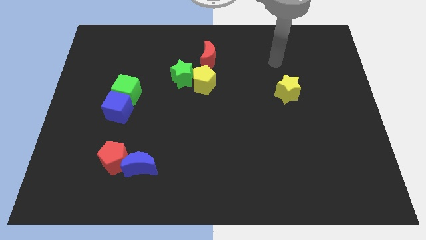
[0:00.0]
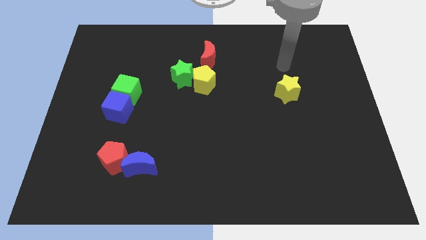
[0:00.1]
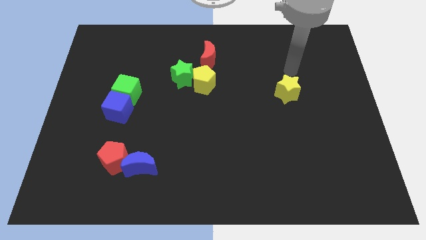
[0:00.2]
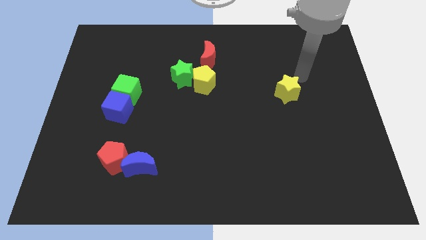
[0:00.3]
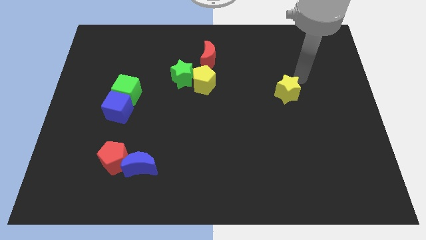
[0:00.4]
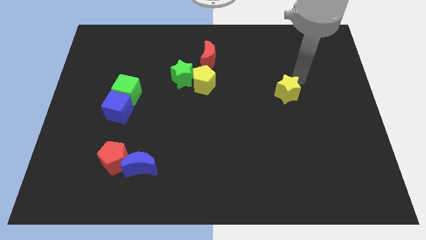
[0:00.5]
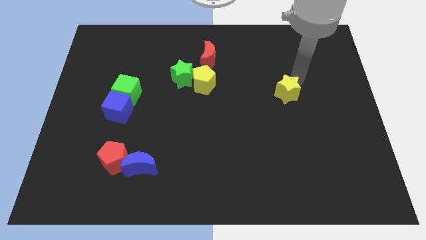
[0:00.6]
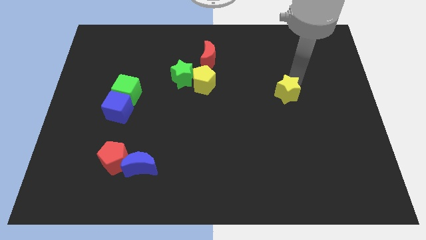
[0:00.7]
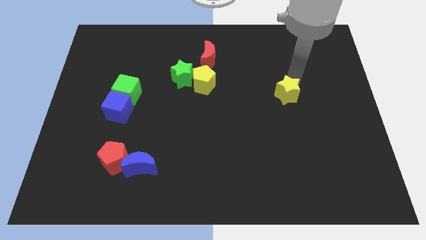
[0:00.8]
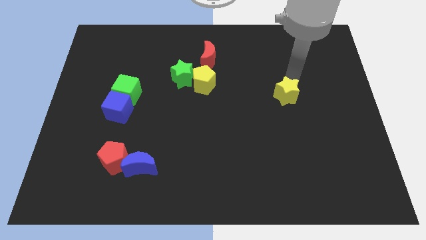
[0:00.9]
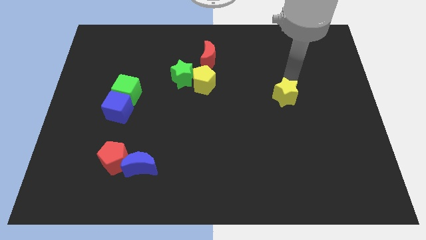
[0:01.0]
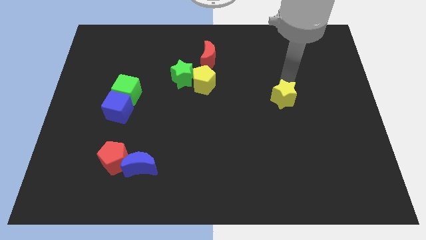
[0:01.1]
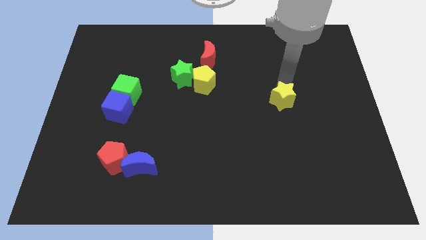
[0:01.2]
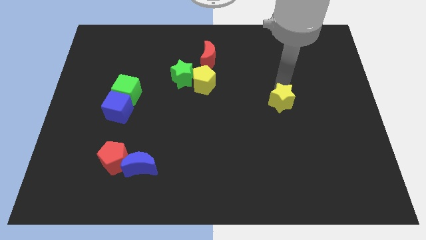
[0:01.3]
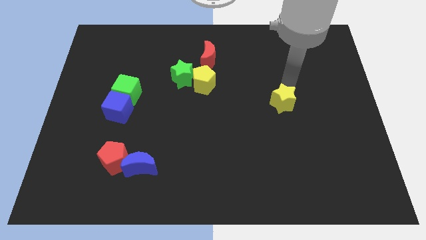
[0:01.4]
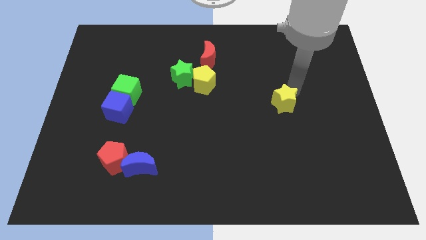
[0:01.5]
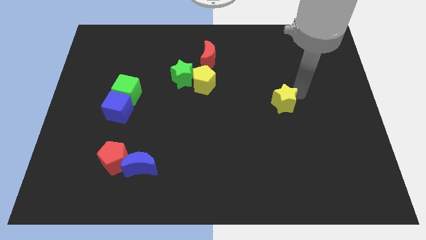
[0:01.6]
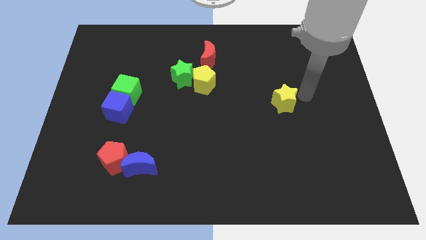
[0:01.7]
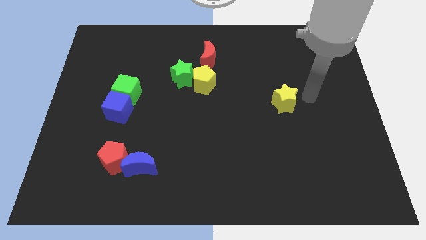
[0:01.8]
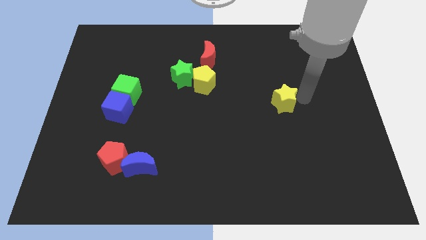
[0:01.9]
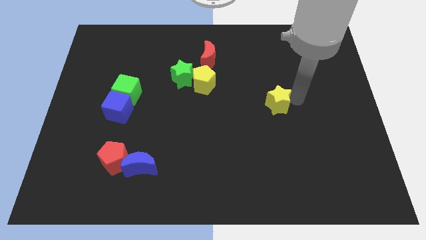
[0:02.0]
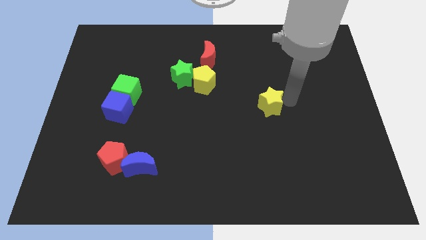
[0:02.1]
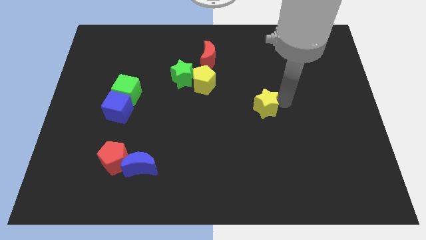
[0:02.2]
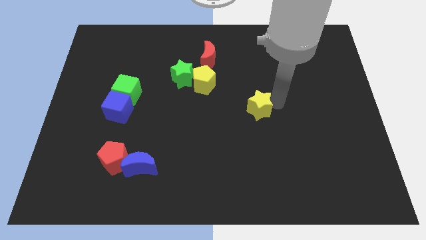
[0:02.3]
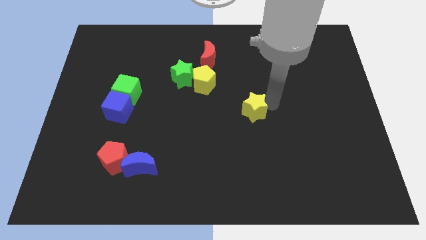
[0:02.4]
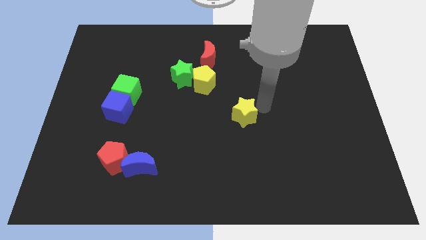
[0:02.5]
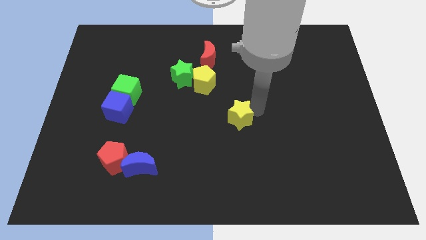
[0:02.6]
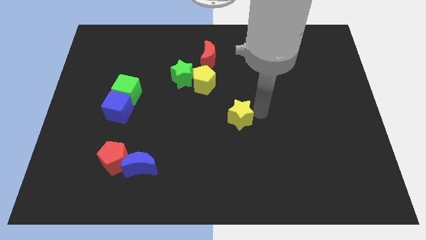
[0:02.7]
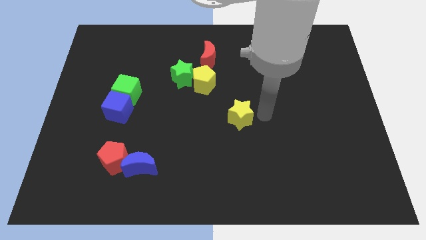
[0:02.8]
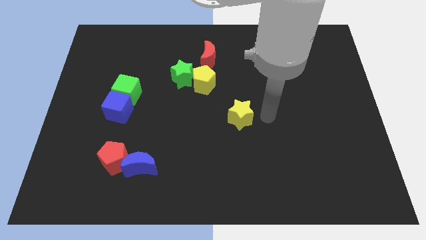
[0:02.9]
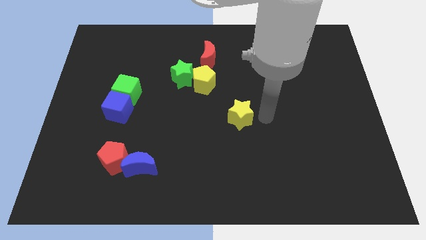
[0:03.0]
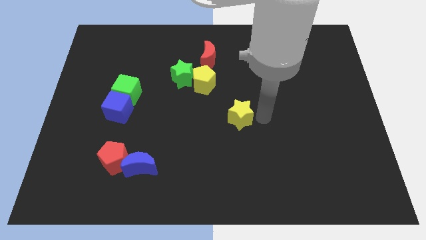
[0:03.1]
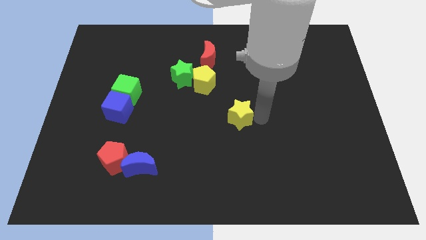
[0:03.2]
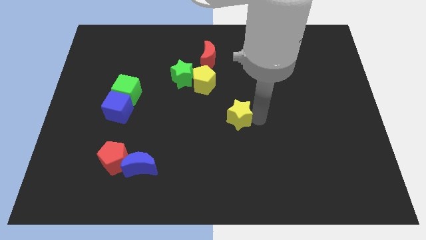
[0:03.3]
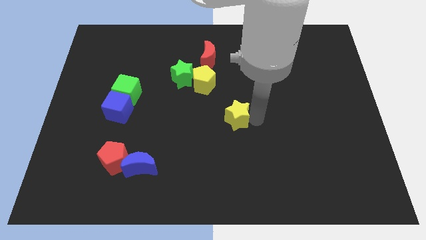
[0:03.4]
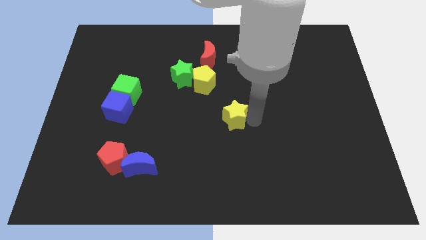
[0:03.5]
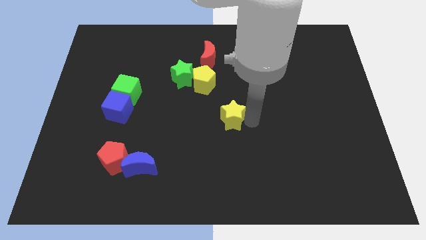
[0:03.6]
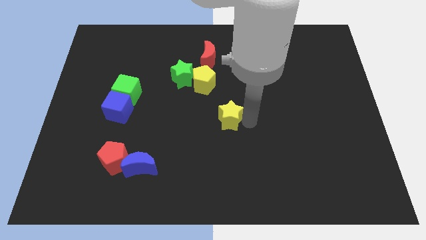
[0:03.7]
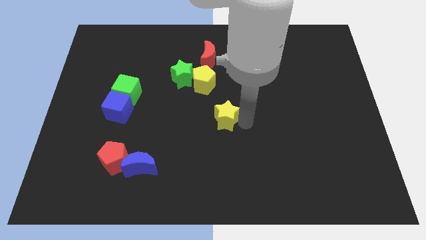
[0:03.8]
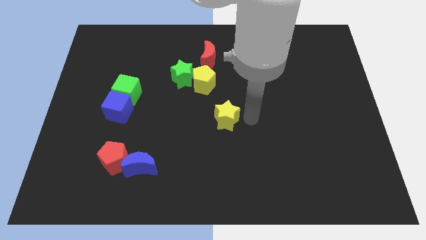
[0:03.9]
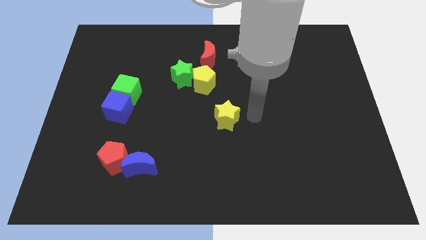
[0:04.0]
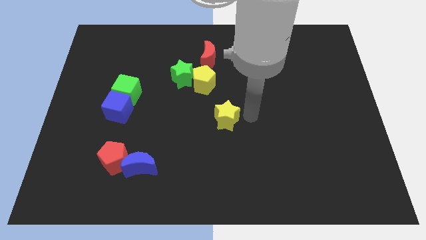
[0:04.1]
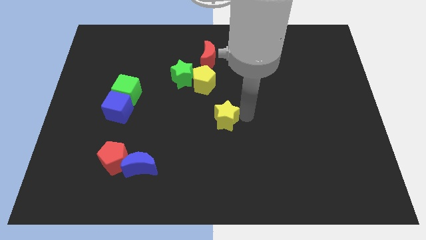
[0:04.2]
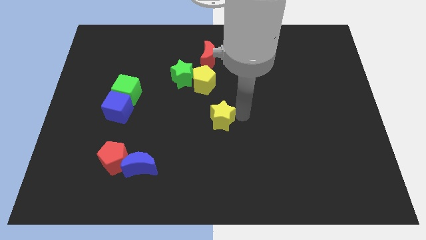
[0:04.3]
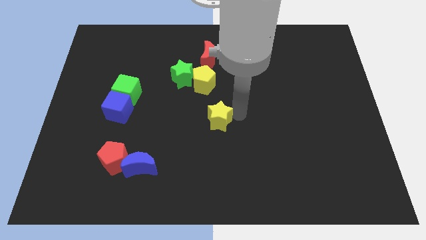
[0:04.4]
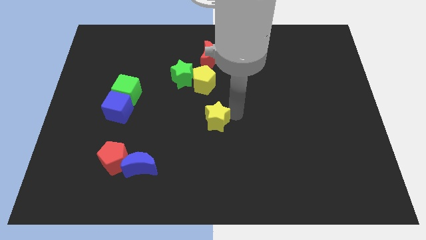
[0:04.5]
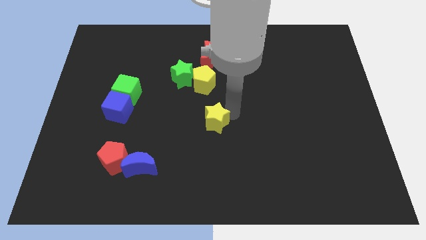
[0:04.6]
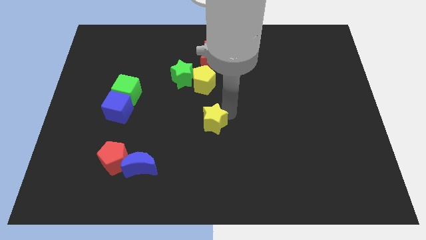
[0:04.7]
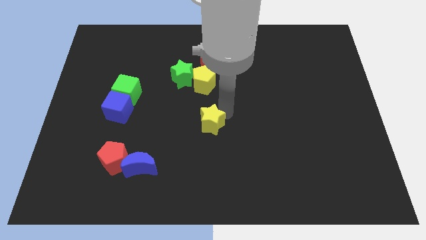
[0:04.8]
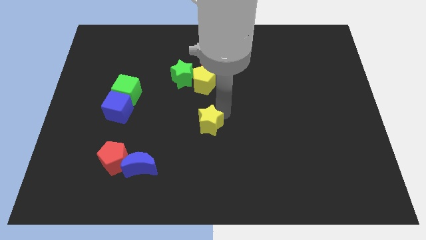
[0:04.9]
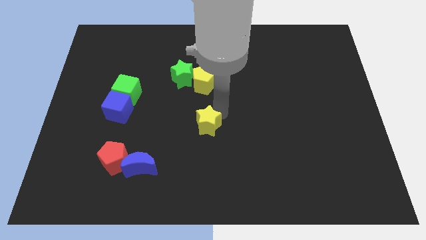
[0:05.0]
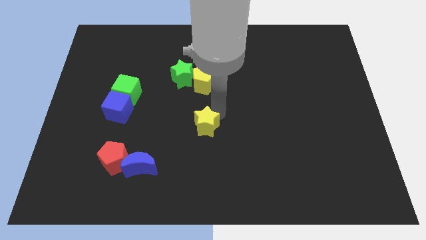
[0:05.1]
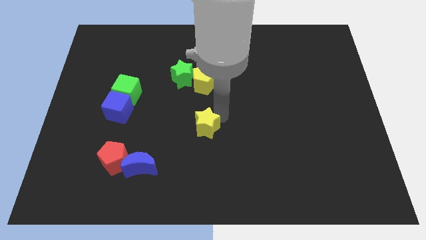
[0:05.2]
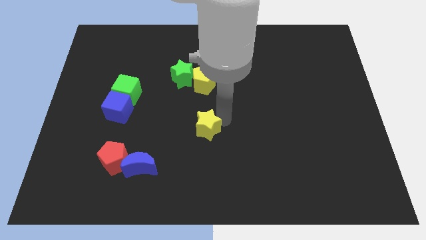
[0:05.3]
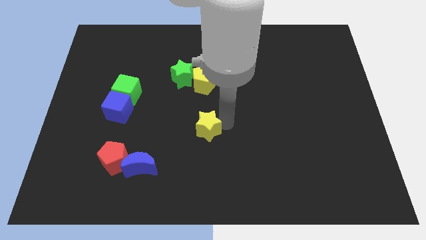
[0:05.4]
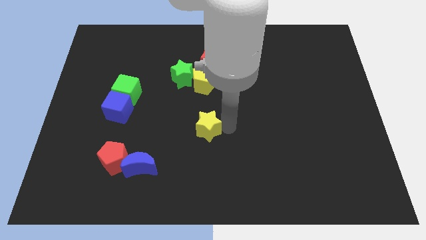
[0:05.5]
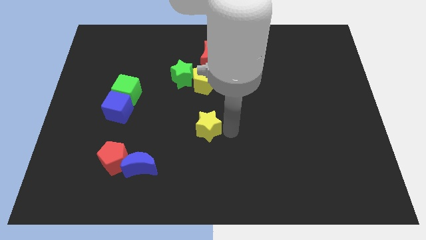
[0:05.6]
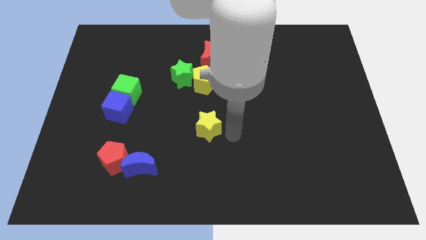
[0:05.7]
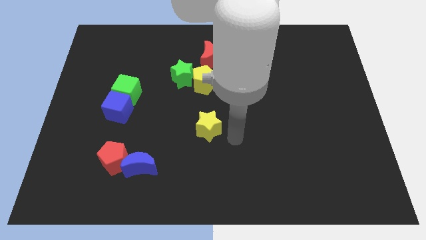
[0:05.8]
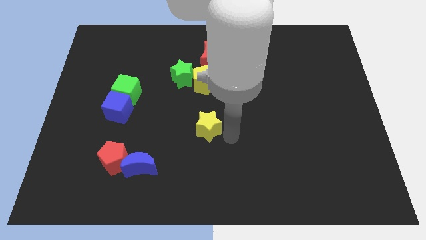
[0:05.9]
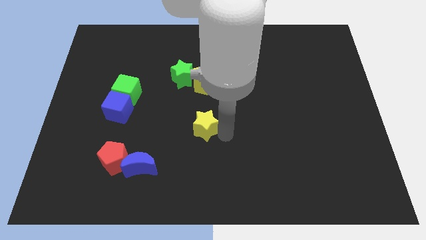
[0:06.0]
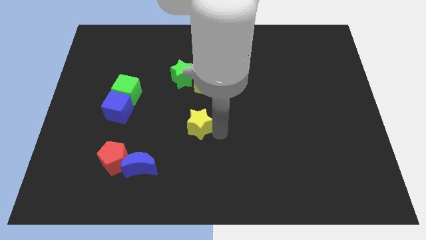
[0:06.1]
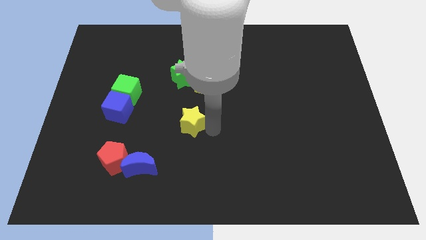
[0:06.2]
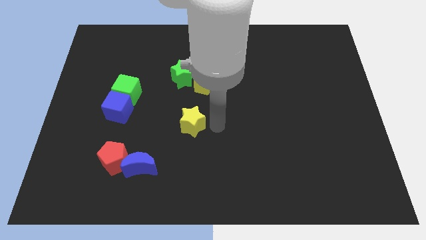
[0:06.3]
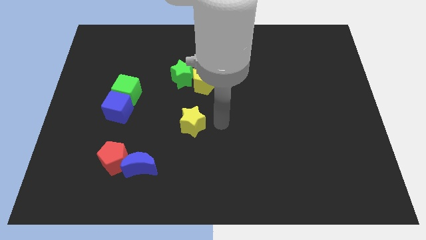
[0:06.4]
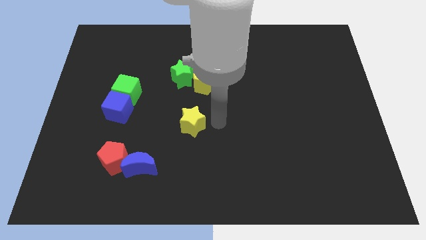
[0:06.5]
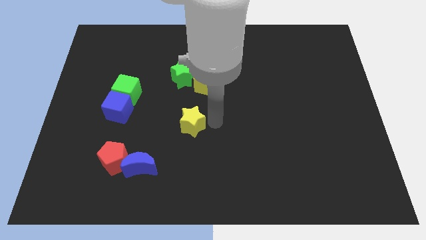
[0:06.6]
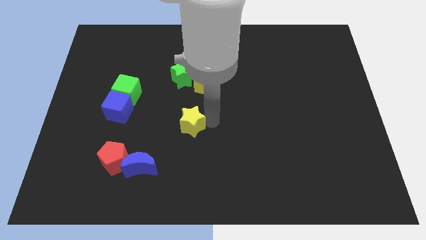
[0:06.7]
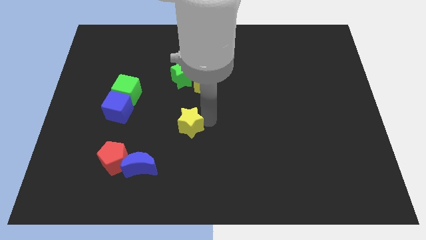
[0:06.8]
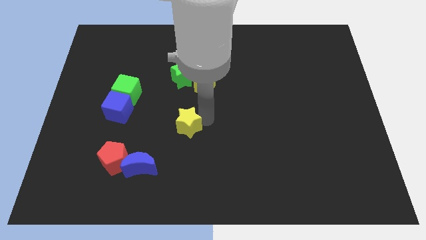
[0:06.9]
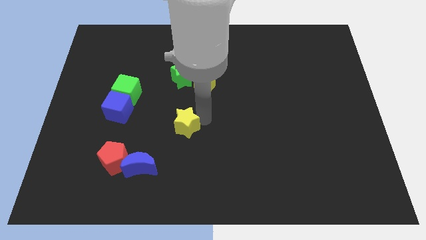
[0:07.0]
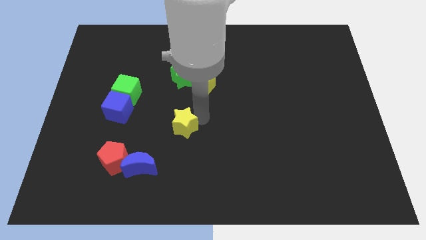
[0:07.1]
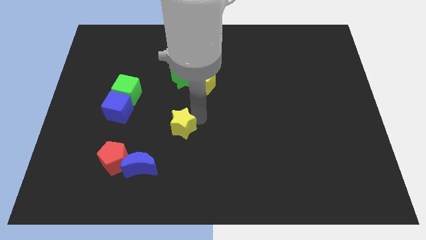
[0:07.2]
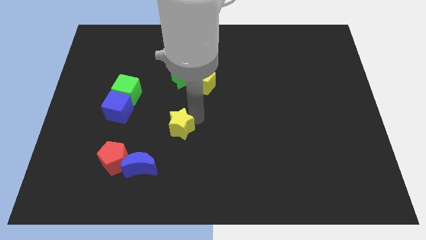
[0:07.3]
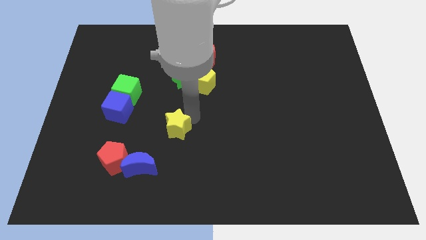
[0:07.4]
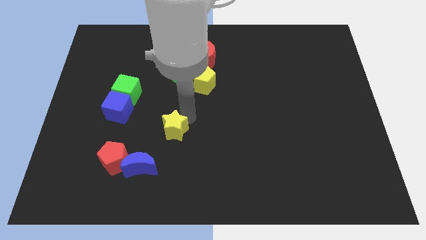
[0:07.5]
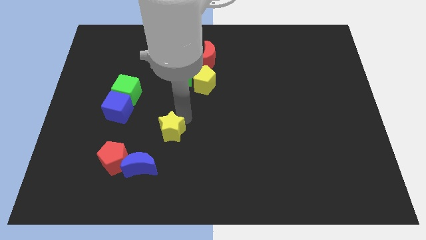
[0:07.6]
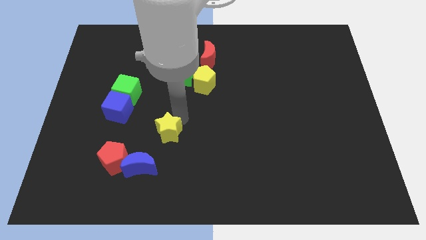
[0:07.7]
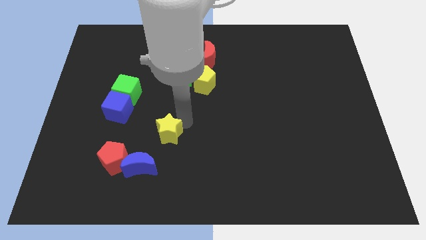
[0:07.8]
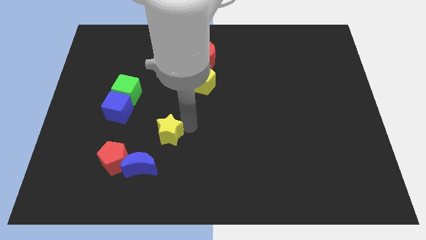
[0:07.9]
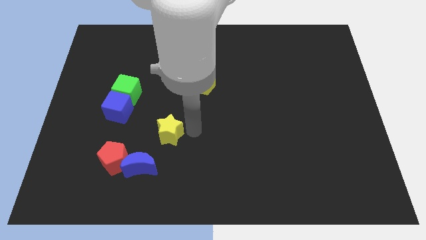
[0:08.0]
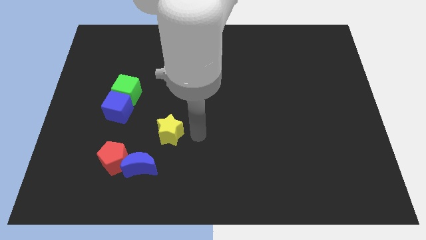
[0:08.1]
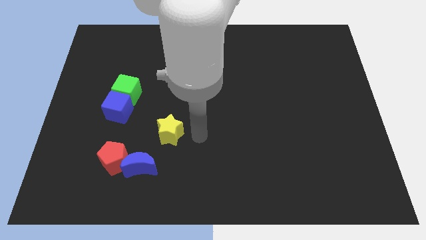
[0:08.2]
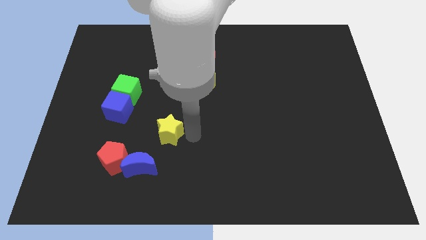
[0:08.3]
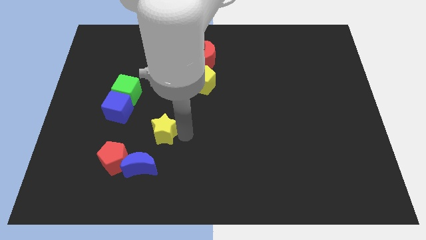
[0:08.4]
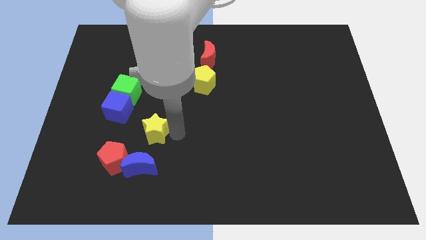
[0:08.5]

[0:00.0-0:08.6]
slide the yellow star to the bottom right of the blue cube
